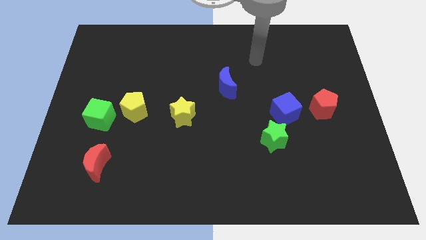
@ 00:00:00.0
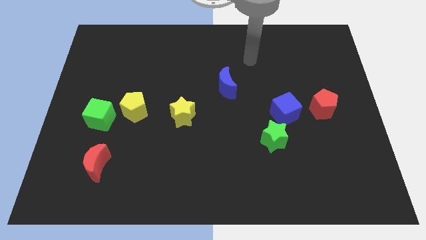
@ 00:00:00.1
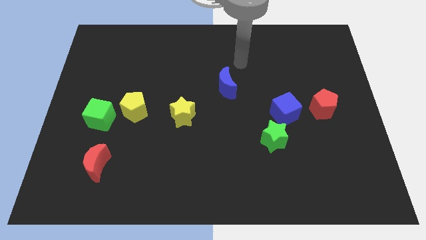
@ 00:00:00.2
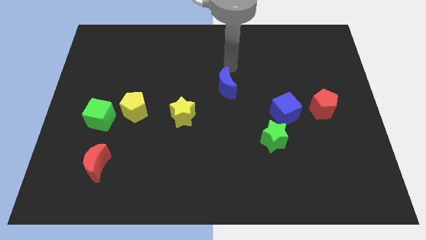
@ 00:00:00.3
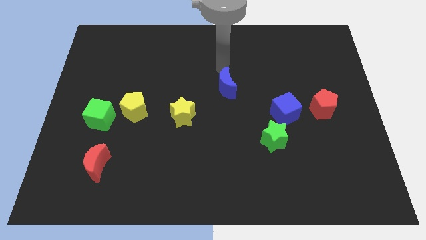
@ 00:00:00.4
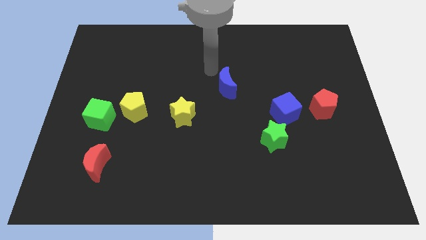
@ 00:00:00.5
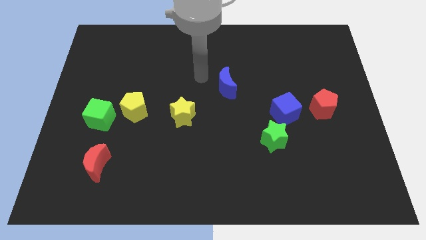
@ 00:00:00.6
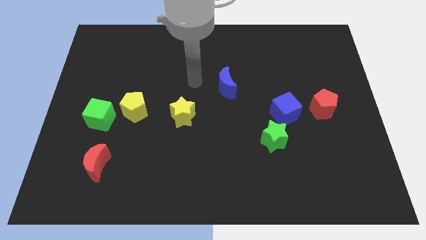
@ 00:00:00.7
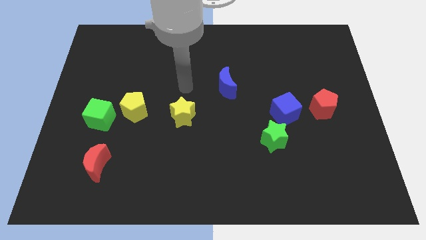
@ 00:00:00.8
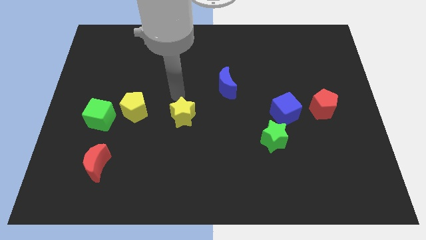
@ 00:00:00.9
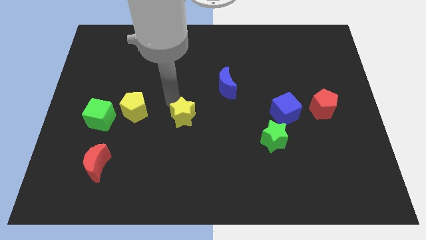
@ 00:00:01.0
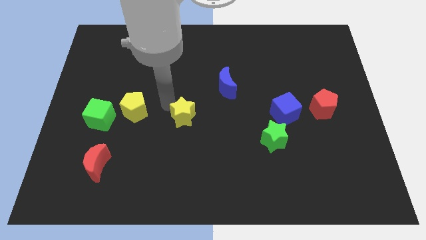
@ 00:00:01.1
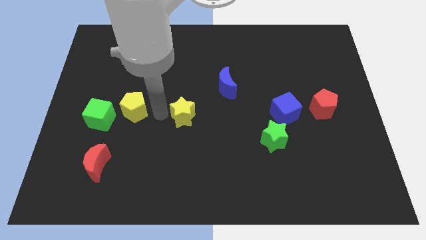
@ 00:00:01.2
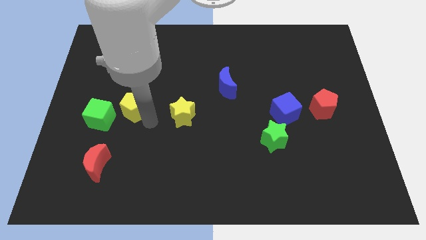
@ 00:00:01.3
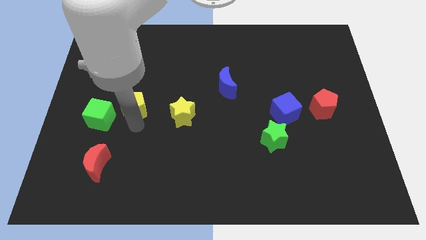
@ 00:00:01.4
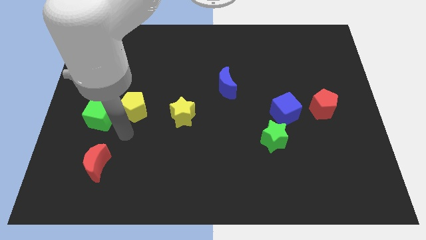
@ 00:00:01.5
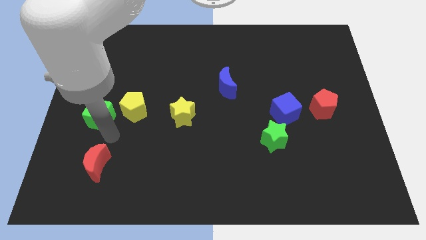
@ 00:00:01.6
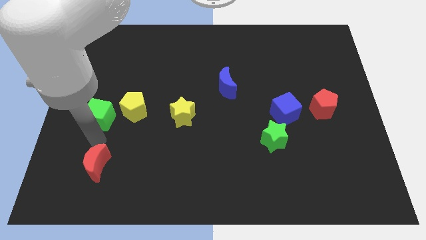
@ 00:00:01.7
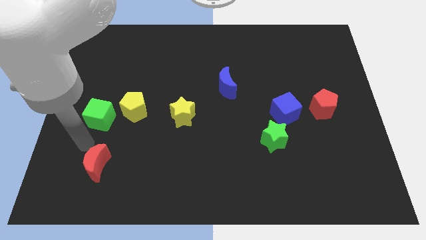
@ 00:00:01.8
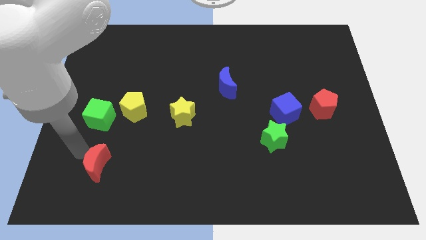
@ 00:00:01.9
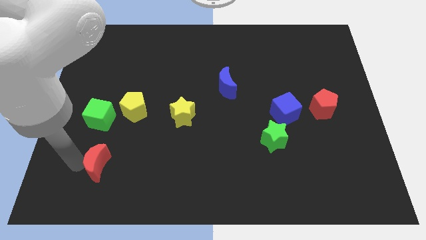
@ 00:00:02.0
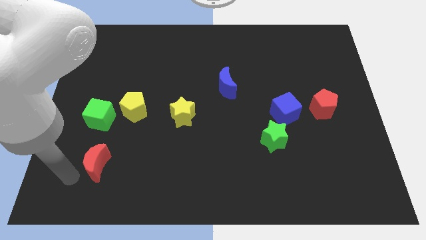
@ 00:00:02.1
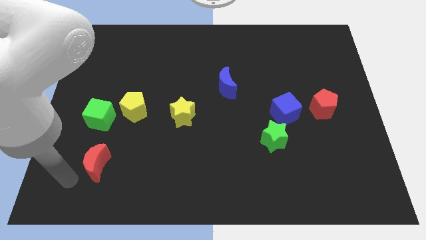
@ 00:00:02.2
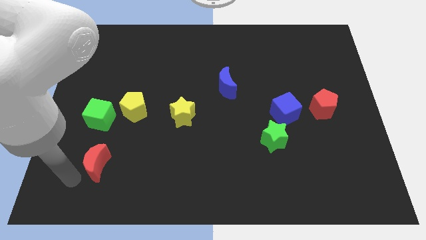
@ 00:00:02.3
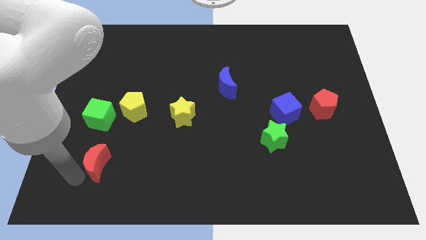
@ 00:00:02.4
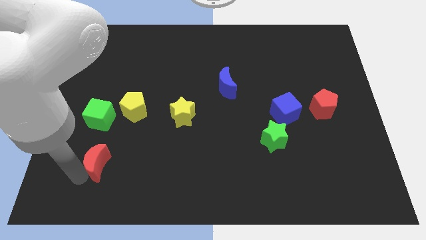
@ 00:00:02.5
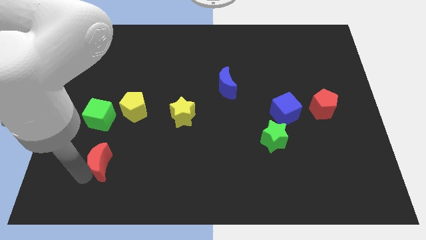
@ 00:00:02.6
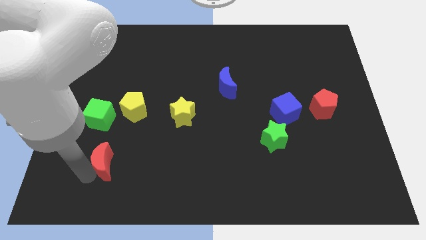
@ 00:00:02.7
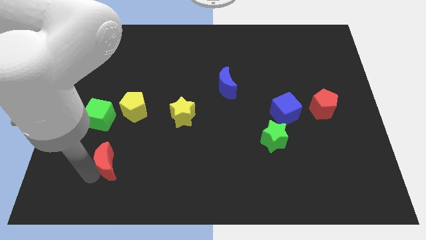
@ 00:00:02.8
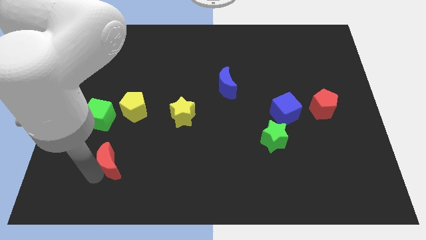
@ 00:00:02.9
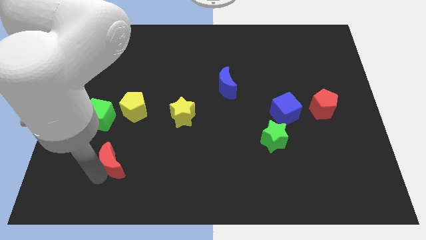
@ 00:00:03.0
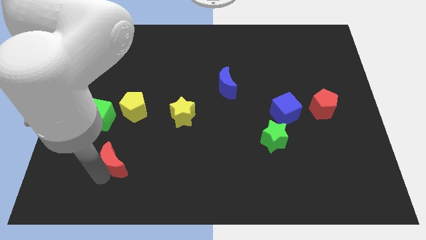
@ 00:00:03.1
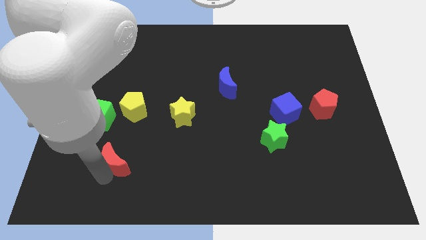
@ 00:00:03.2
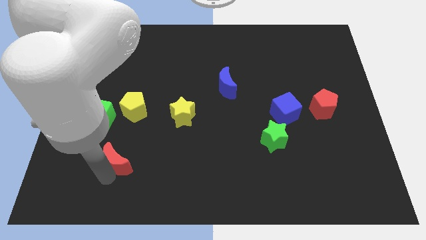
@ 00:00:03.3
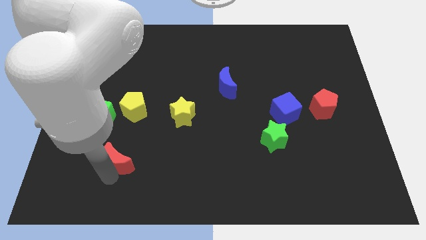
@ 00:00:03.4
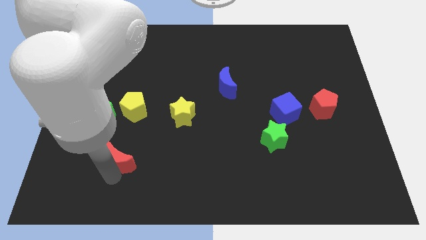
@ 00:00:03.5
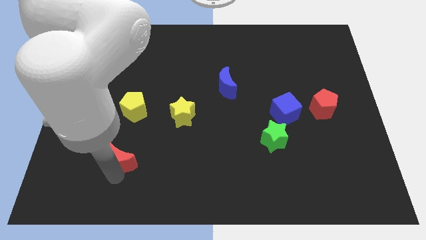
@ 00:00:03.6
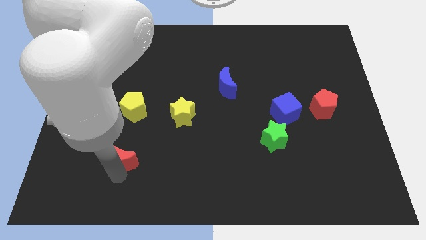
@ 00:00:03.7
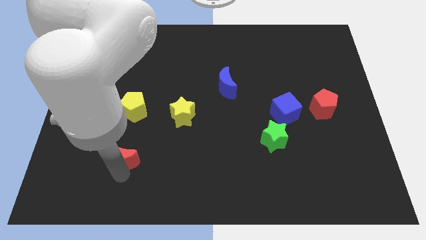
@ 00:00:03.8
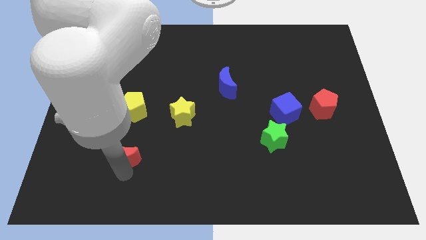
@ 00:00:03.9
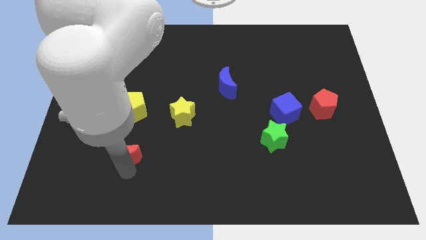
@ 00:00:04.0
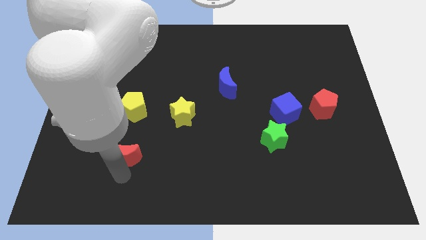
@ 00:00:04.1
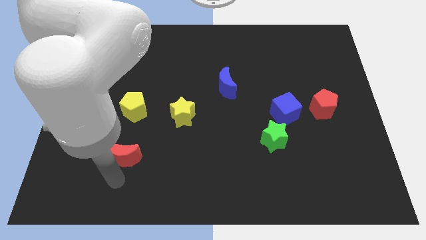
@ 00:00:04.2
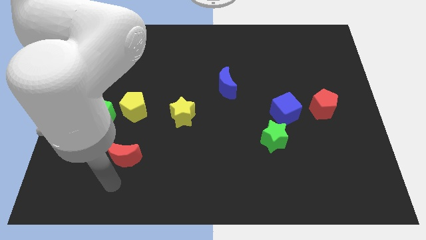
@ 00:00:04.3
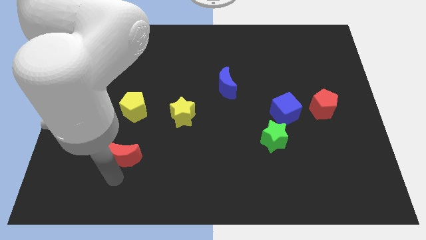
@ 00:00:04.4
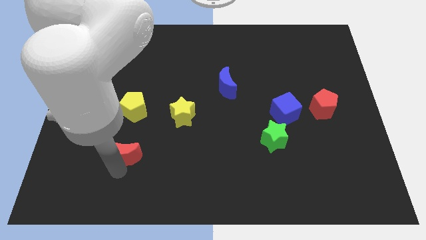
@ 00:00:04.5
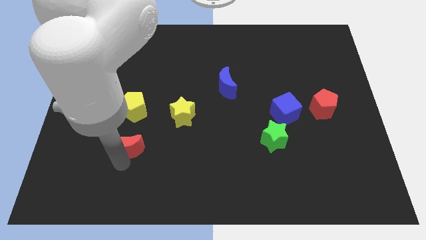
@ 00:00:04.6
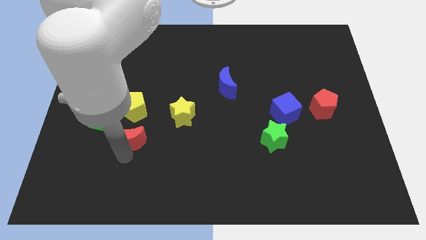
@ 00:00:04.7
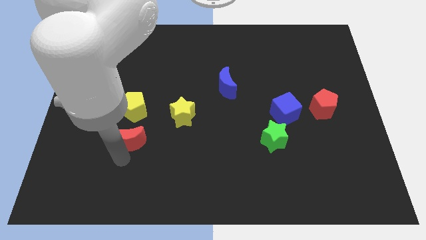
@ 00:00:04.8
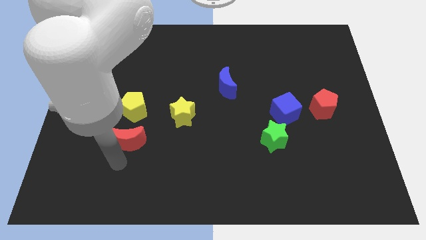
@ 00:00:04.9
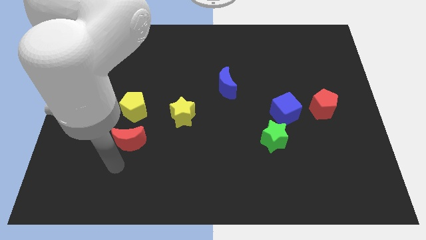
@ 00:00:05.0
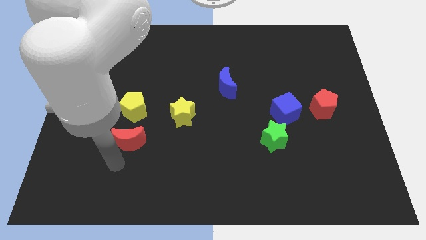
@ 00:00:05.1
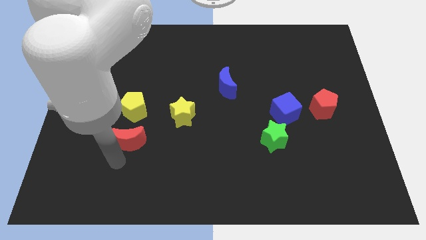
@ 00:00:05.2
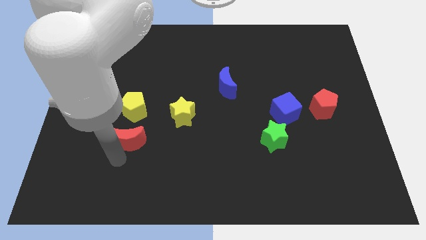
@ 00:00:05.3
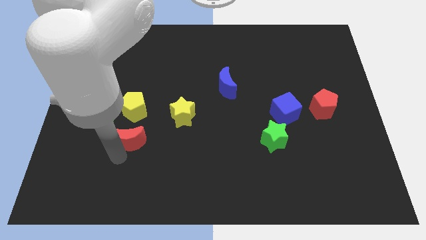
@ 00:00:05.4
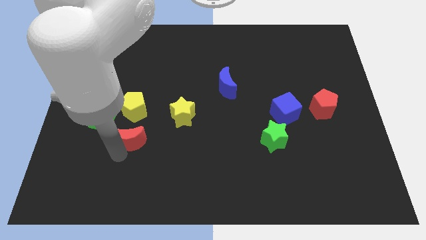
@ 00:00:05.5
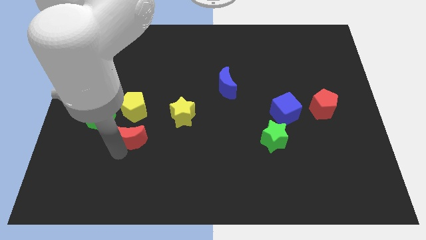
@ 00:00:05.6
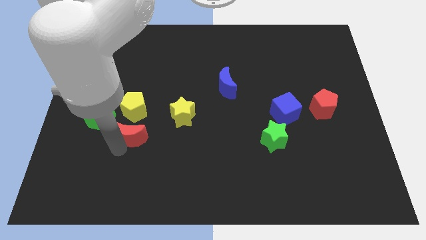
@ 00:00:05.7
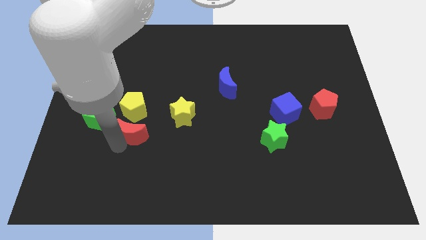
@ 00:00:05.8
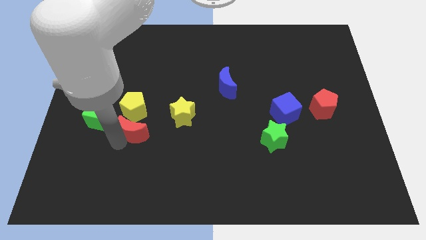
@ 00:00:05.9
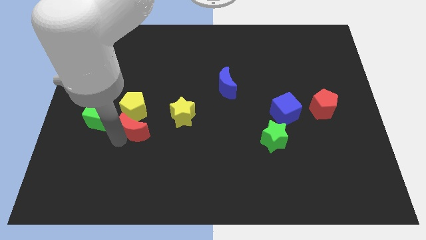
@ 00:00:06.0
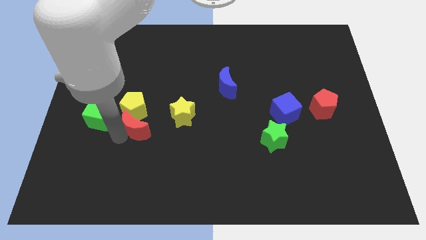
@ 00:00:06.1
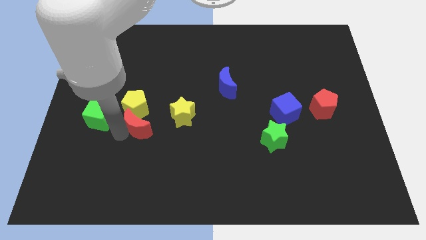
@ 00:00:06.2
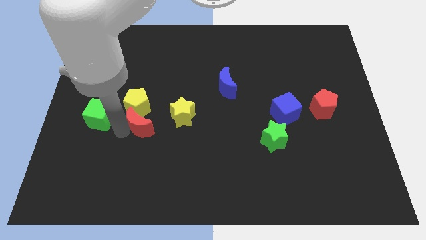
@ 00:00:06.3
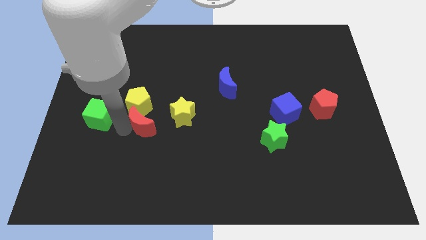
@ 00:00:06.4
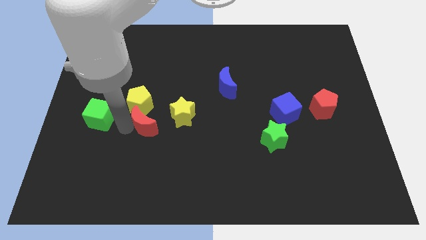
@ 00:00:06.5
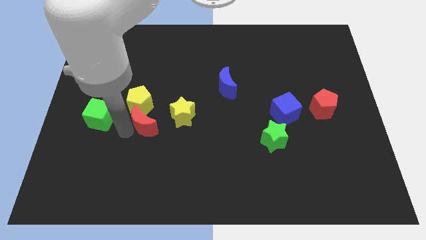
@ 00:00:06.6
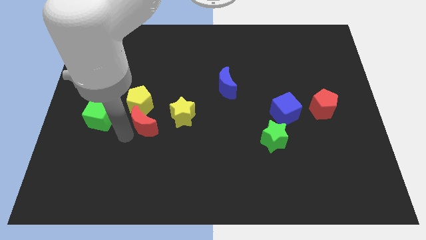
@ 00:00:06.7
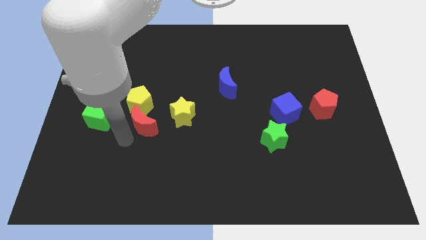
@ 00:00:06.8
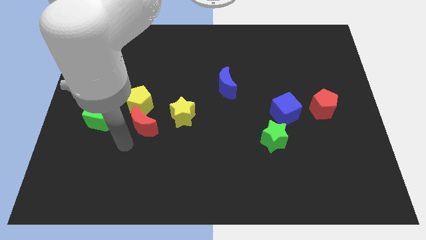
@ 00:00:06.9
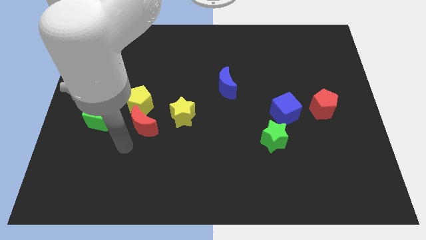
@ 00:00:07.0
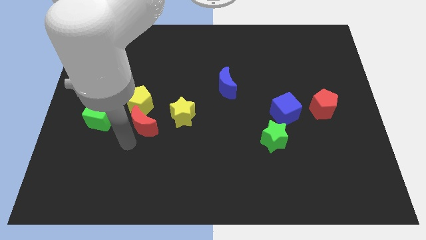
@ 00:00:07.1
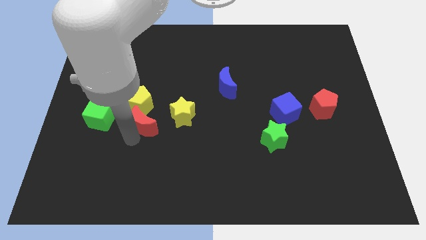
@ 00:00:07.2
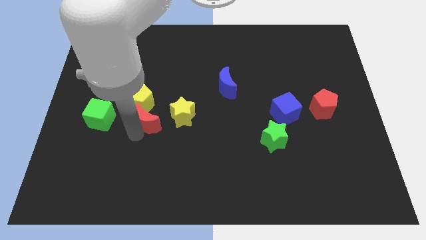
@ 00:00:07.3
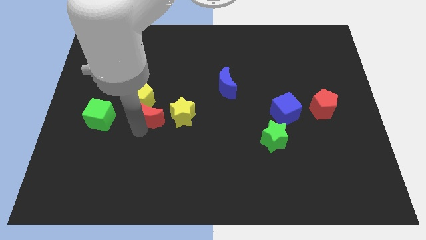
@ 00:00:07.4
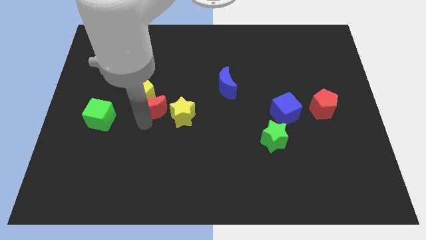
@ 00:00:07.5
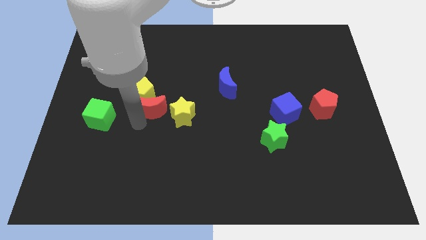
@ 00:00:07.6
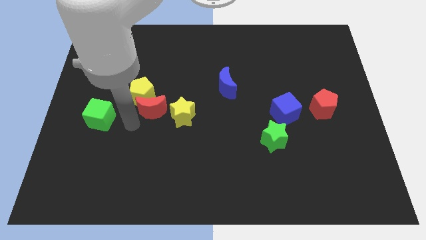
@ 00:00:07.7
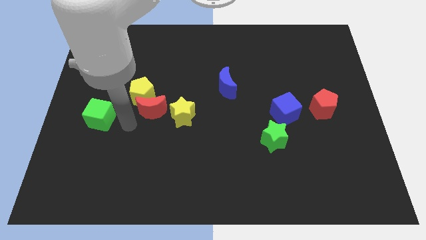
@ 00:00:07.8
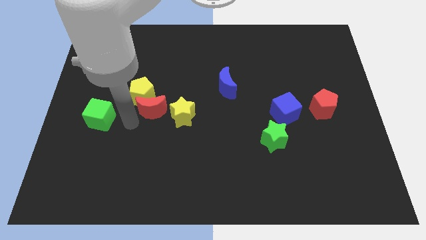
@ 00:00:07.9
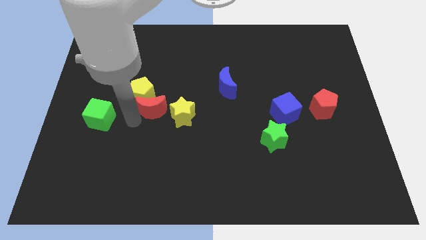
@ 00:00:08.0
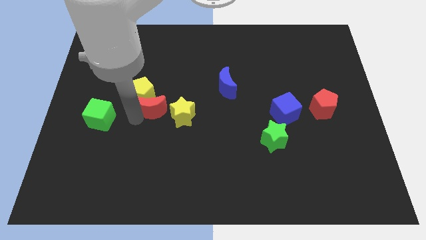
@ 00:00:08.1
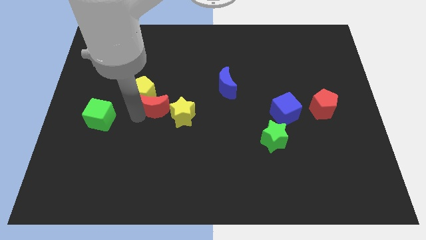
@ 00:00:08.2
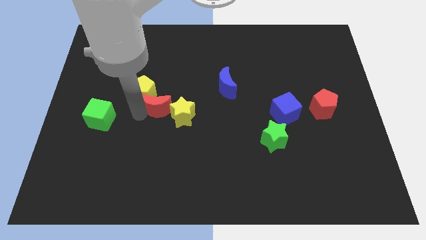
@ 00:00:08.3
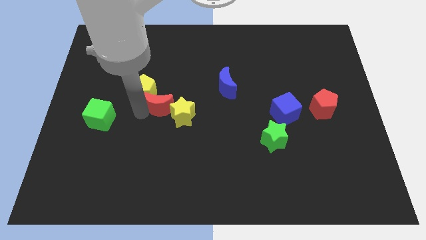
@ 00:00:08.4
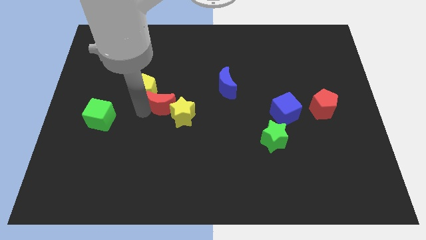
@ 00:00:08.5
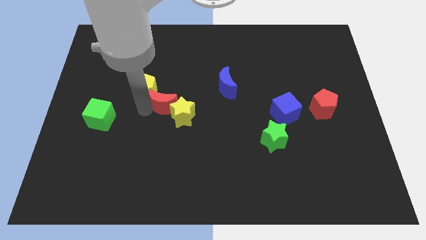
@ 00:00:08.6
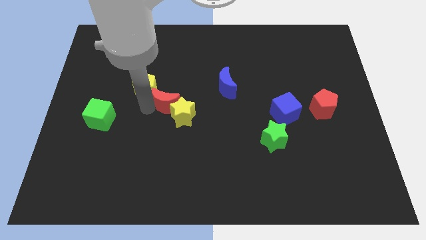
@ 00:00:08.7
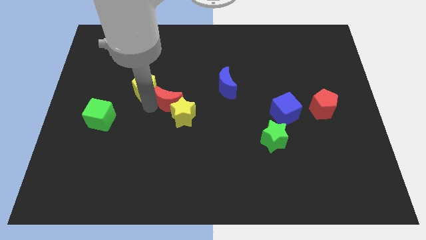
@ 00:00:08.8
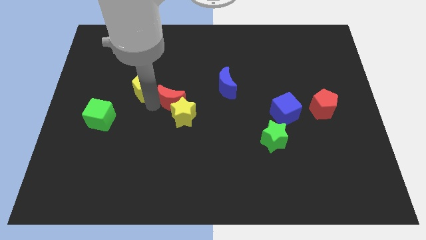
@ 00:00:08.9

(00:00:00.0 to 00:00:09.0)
push the red moon left of the blue moon
